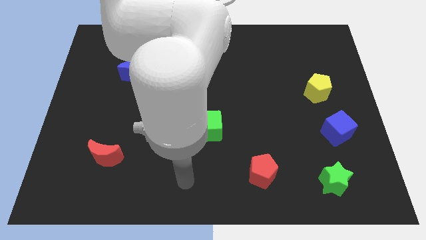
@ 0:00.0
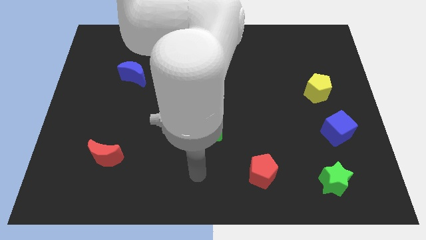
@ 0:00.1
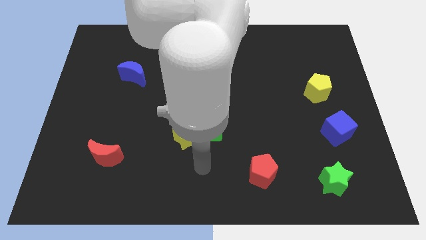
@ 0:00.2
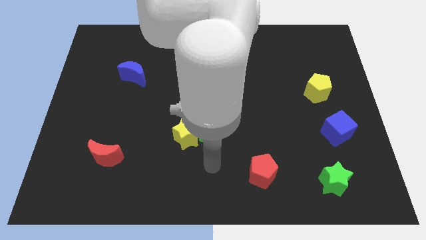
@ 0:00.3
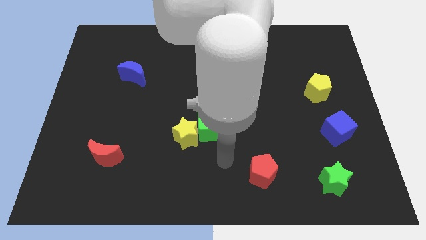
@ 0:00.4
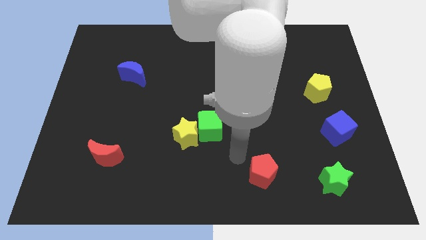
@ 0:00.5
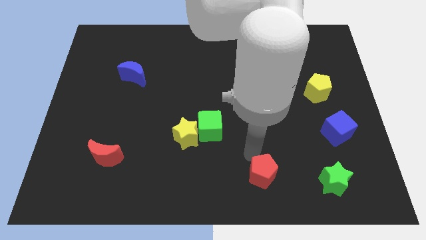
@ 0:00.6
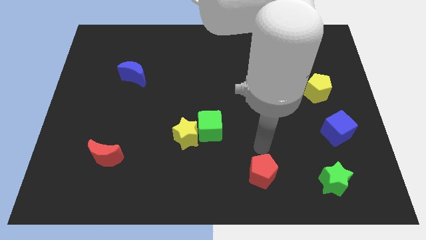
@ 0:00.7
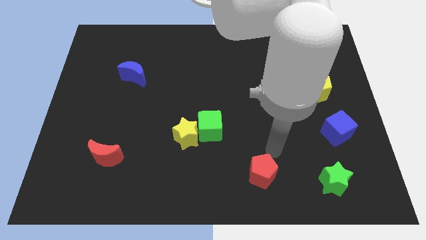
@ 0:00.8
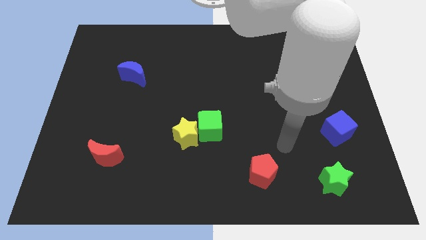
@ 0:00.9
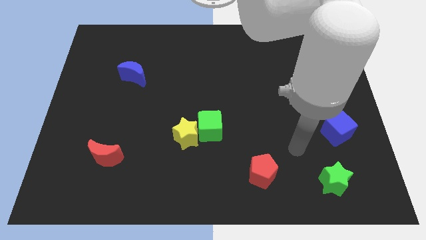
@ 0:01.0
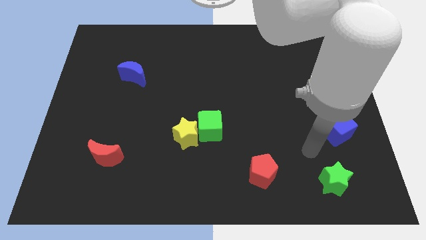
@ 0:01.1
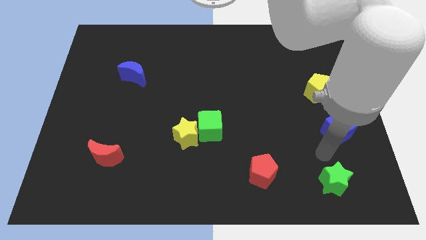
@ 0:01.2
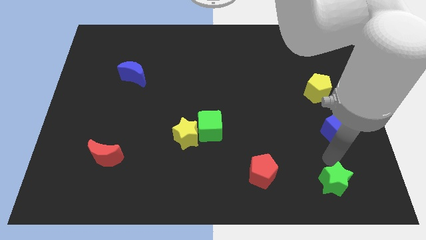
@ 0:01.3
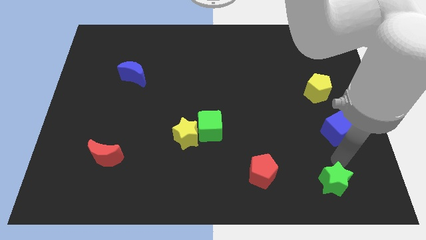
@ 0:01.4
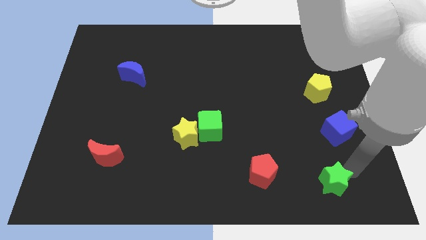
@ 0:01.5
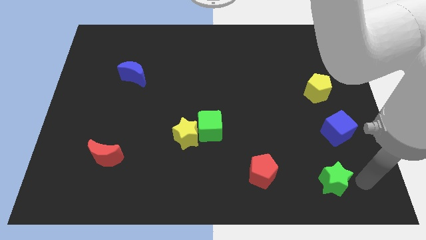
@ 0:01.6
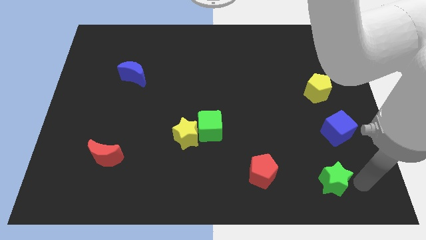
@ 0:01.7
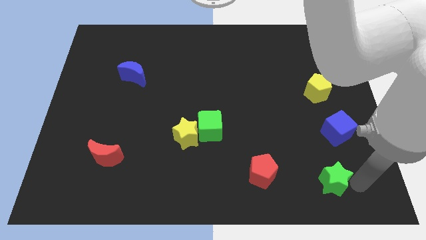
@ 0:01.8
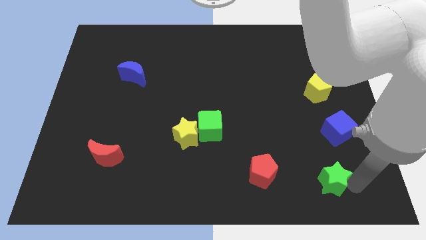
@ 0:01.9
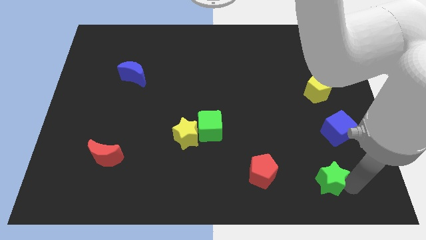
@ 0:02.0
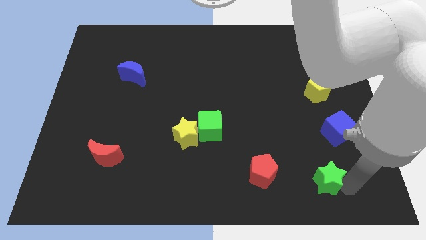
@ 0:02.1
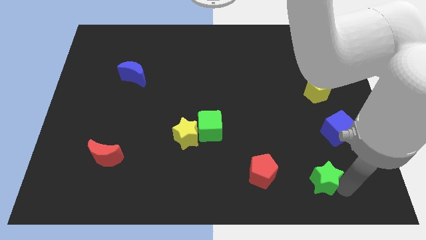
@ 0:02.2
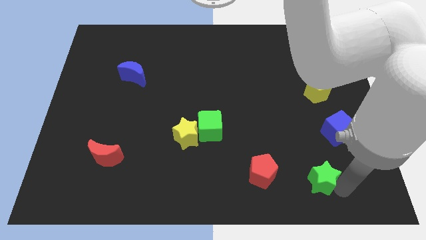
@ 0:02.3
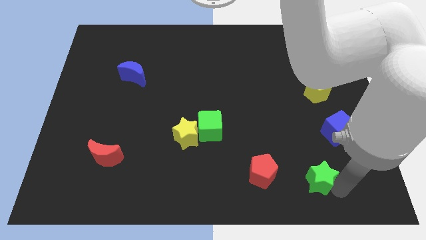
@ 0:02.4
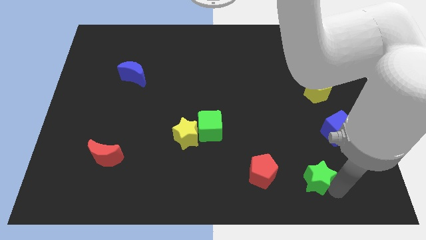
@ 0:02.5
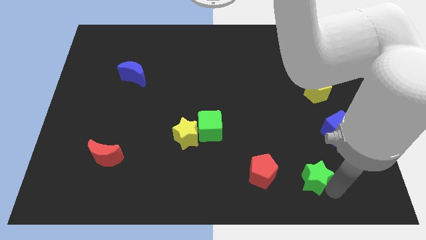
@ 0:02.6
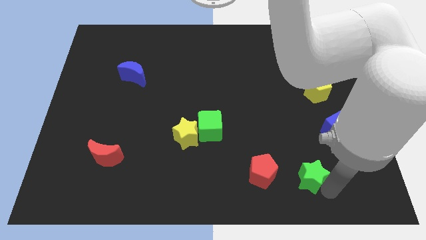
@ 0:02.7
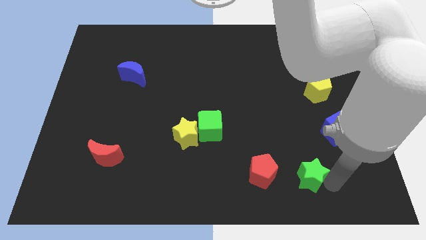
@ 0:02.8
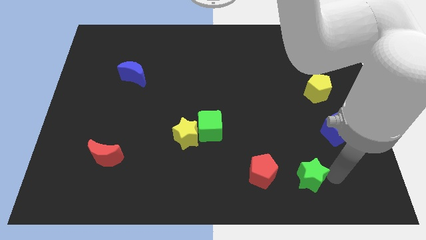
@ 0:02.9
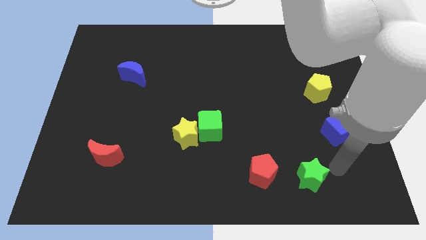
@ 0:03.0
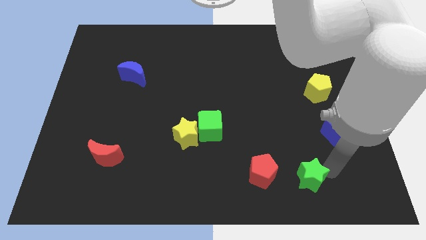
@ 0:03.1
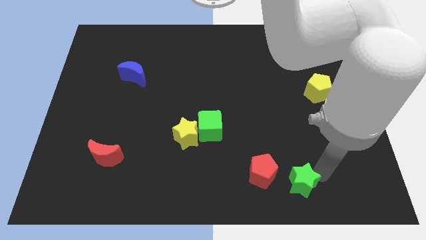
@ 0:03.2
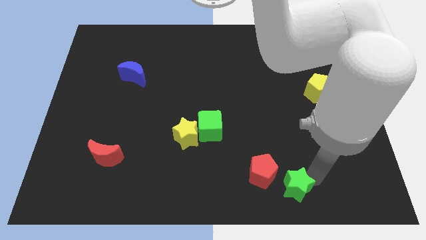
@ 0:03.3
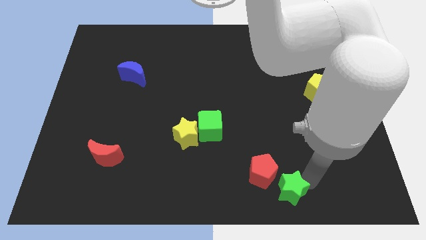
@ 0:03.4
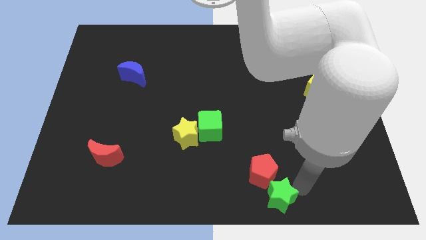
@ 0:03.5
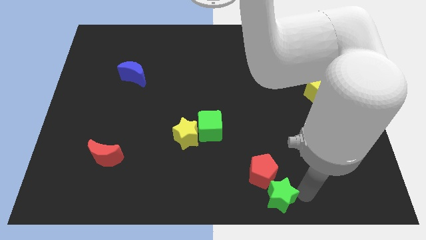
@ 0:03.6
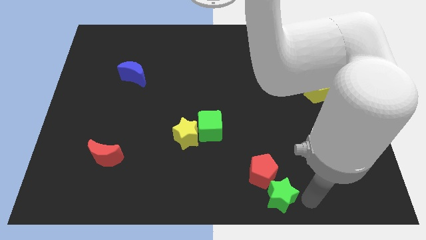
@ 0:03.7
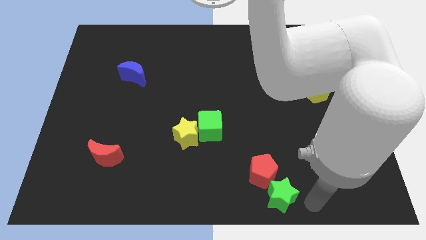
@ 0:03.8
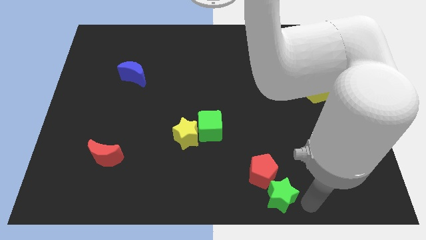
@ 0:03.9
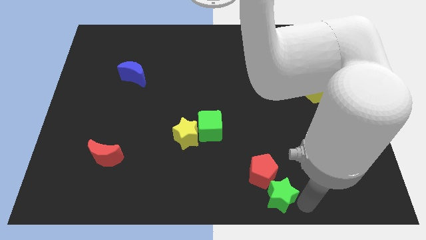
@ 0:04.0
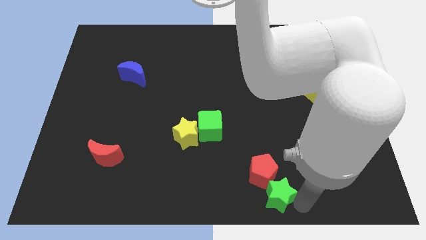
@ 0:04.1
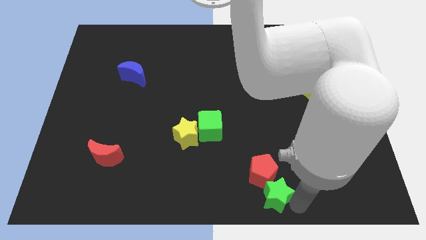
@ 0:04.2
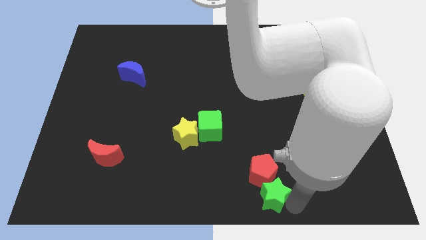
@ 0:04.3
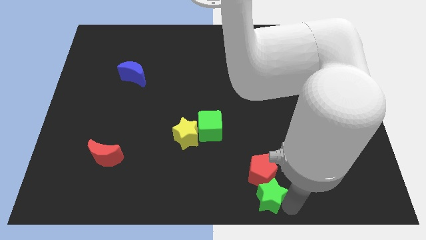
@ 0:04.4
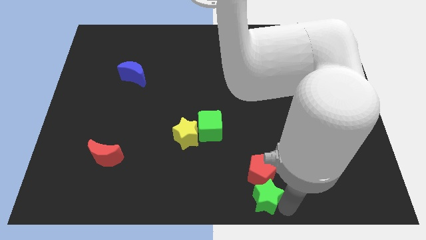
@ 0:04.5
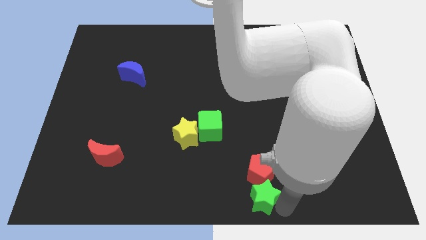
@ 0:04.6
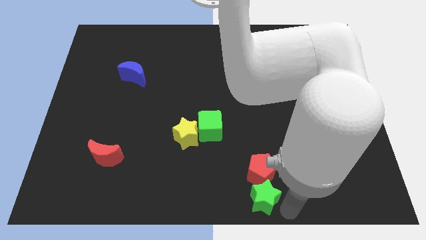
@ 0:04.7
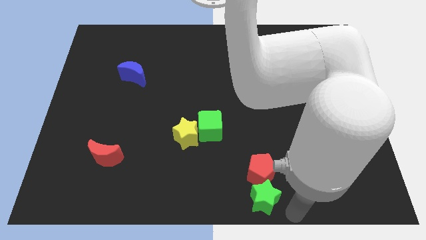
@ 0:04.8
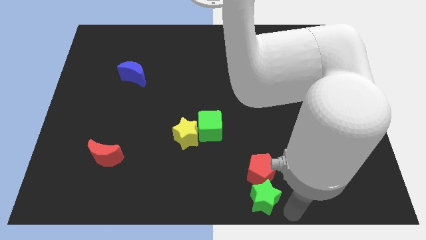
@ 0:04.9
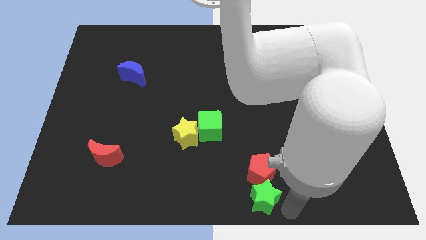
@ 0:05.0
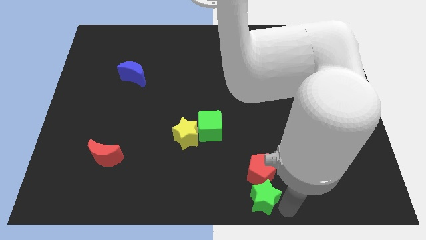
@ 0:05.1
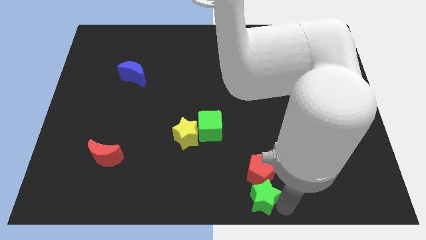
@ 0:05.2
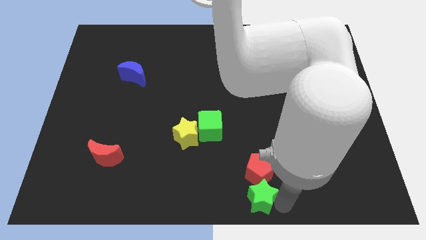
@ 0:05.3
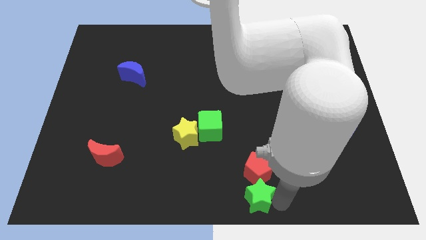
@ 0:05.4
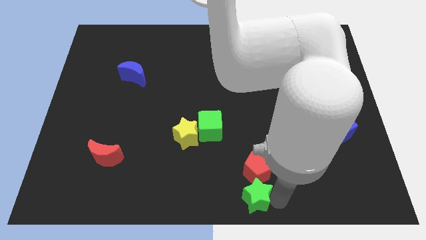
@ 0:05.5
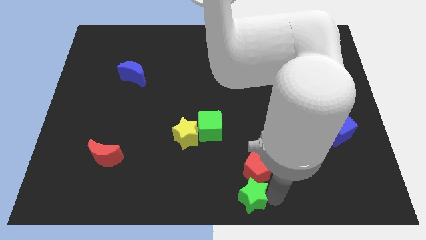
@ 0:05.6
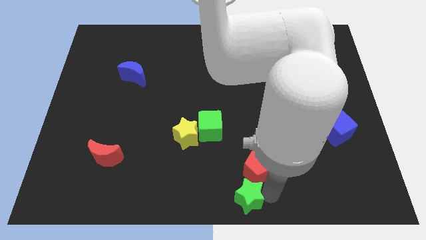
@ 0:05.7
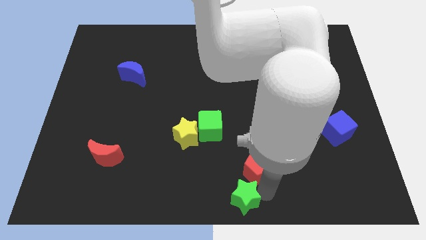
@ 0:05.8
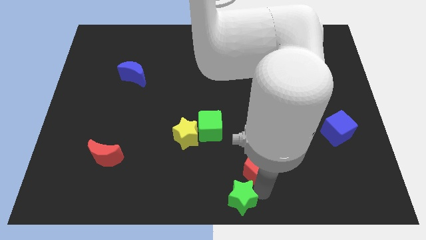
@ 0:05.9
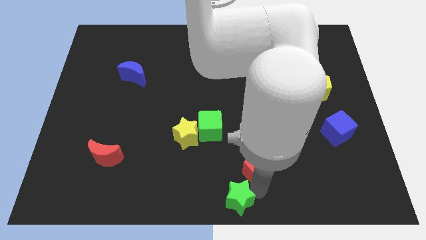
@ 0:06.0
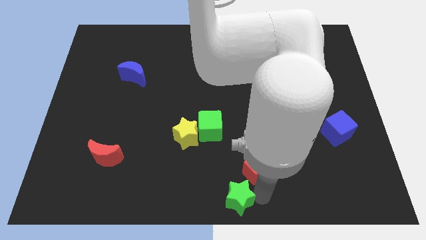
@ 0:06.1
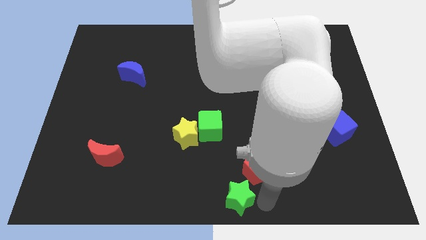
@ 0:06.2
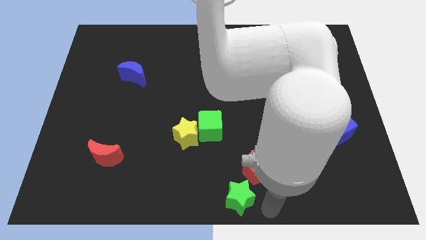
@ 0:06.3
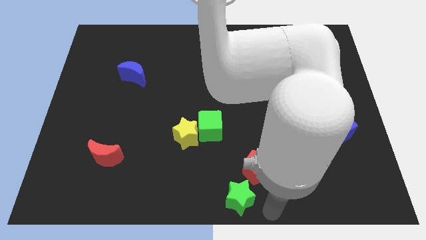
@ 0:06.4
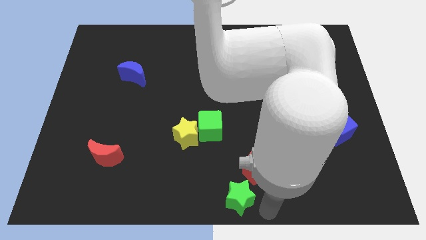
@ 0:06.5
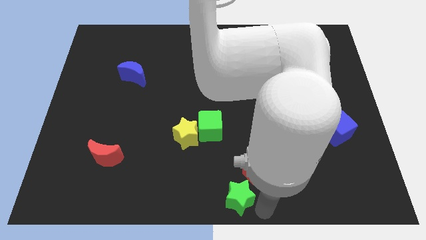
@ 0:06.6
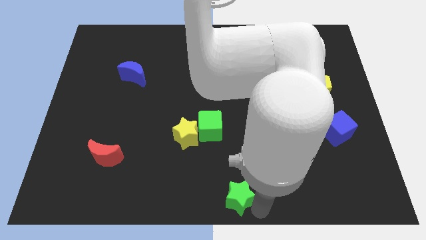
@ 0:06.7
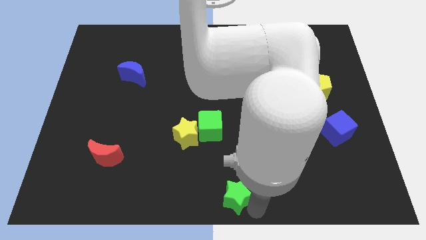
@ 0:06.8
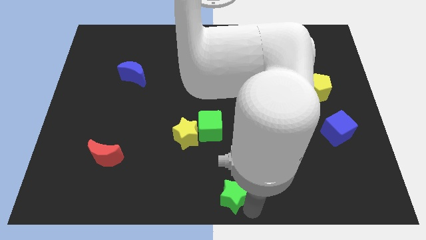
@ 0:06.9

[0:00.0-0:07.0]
slide the green star left

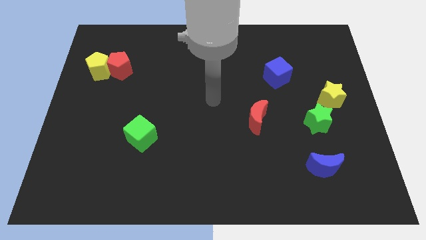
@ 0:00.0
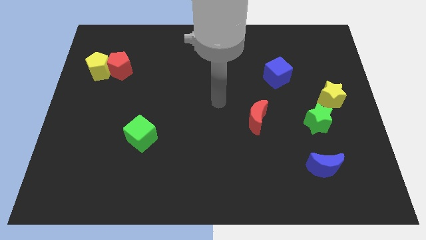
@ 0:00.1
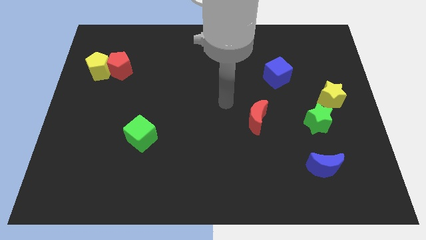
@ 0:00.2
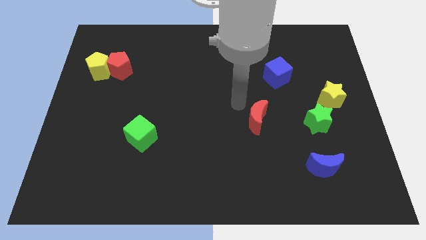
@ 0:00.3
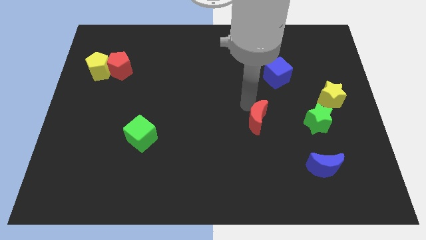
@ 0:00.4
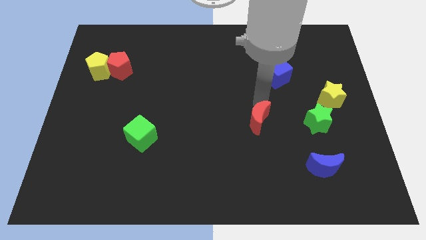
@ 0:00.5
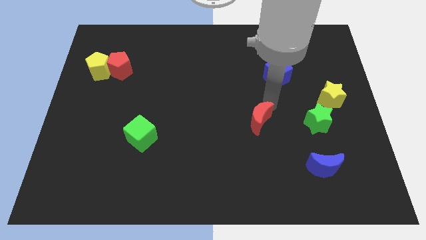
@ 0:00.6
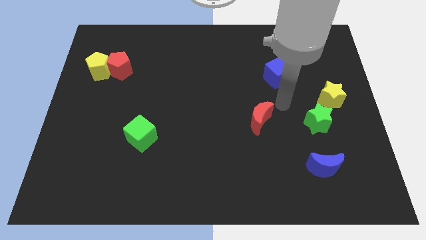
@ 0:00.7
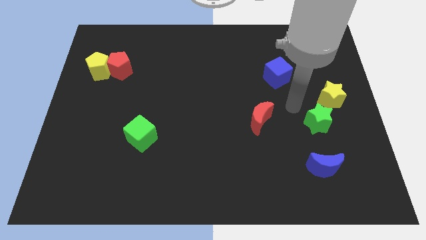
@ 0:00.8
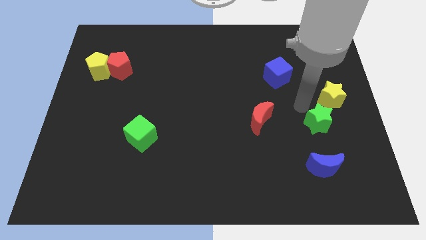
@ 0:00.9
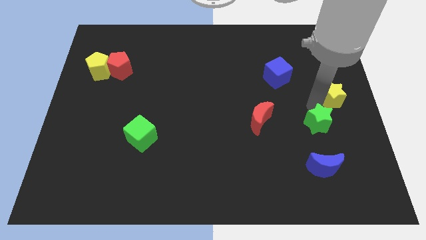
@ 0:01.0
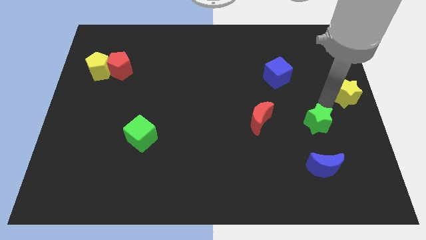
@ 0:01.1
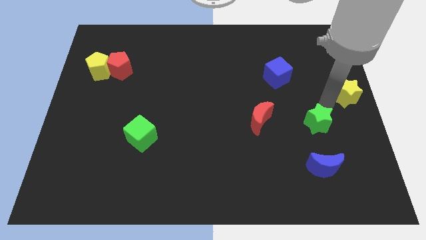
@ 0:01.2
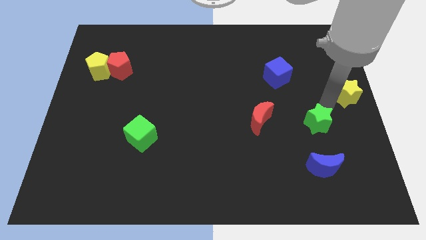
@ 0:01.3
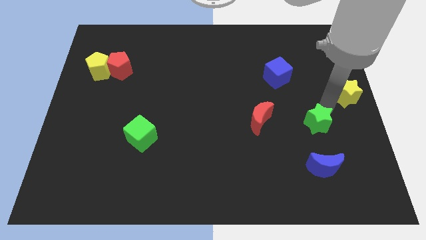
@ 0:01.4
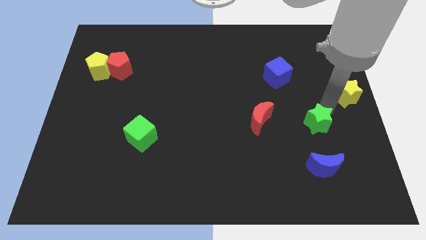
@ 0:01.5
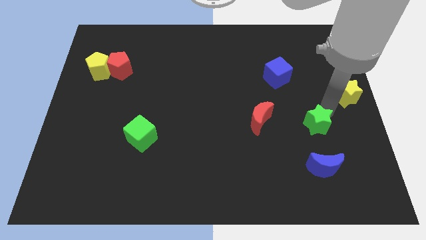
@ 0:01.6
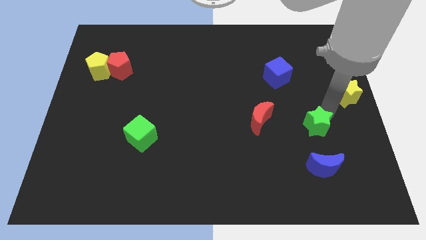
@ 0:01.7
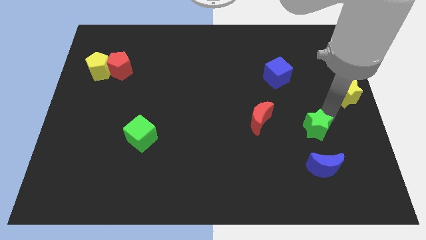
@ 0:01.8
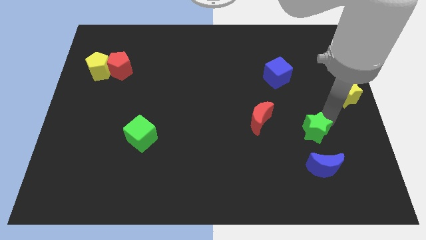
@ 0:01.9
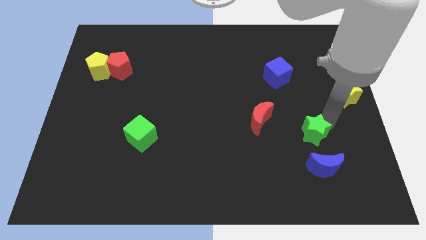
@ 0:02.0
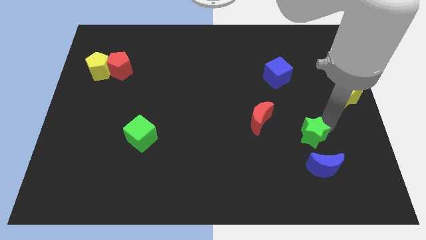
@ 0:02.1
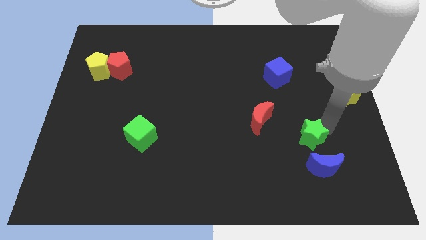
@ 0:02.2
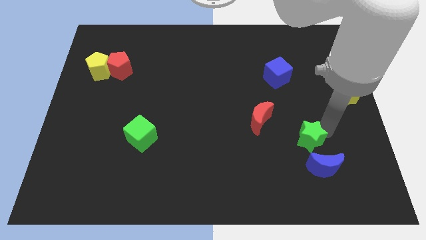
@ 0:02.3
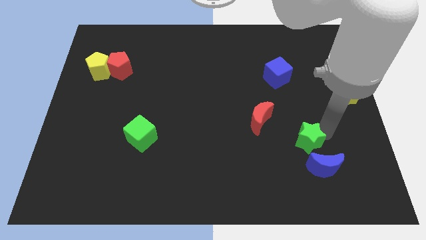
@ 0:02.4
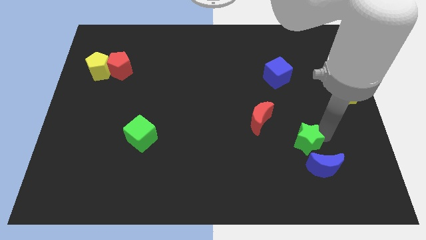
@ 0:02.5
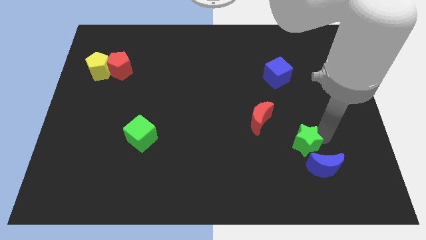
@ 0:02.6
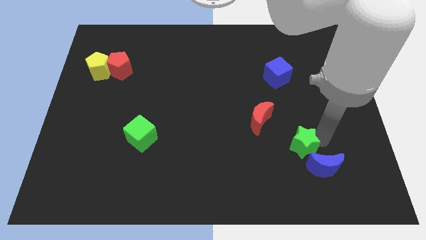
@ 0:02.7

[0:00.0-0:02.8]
slide the green star somewhat downwards and to the left diagonally
